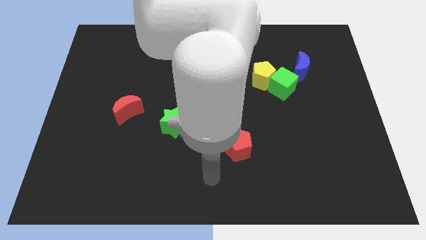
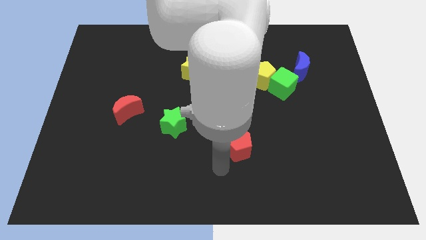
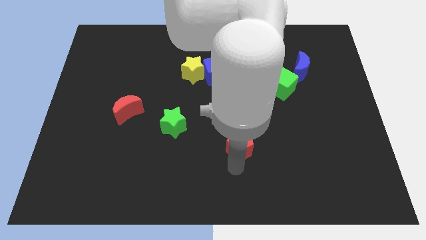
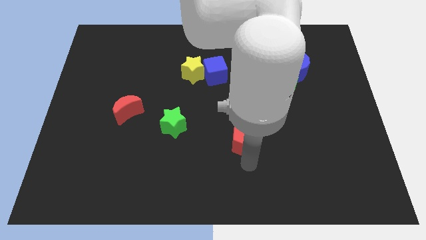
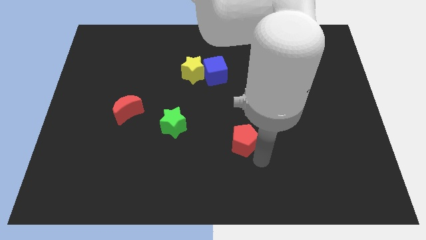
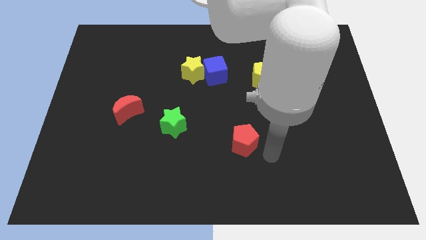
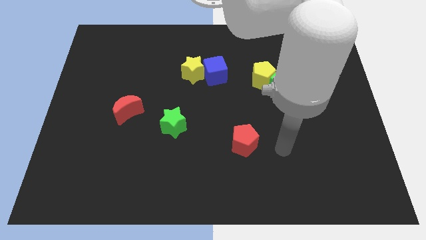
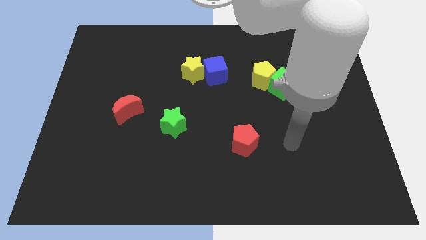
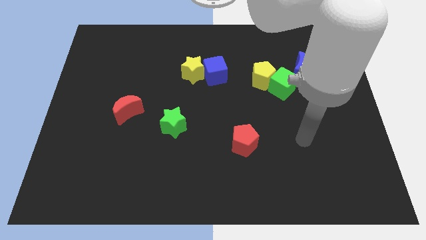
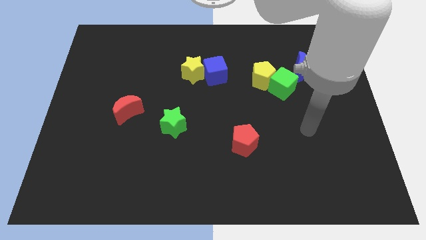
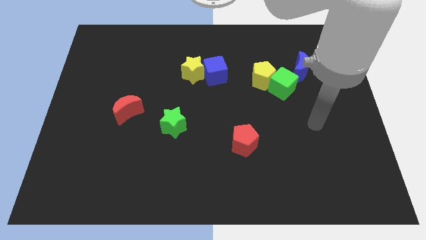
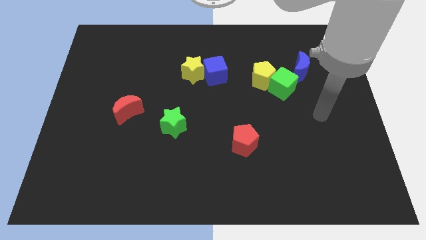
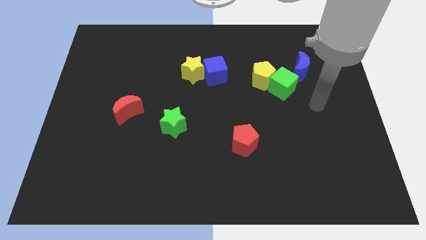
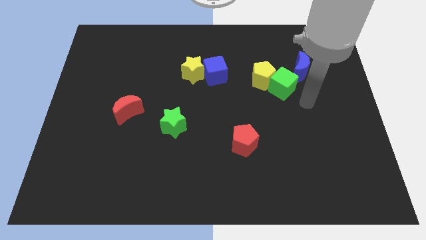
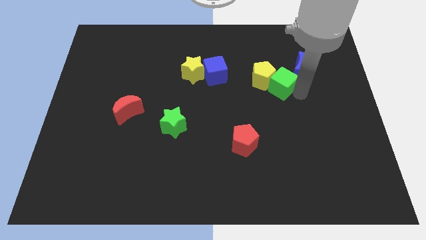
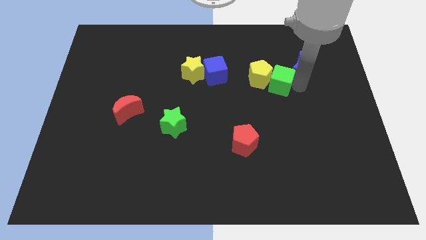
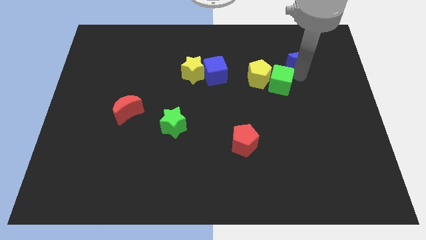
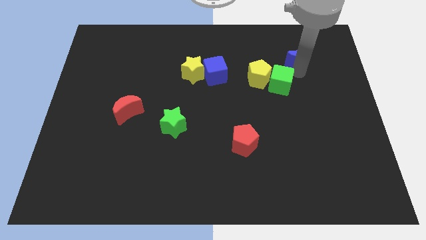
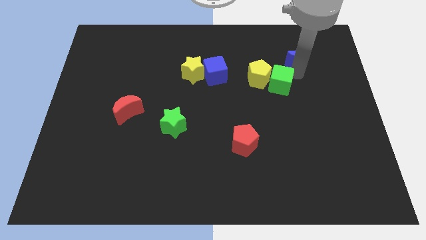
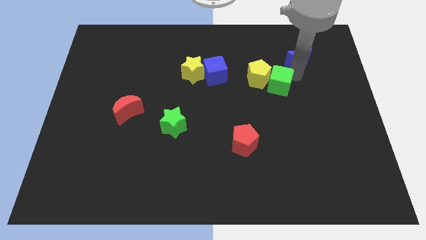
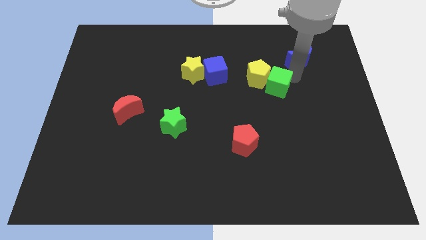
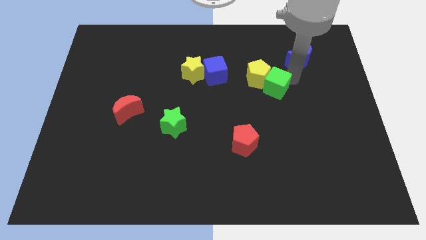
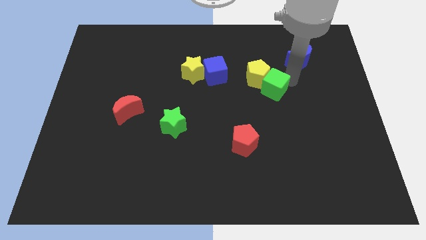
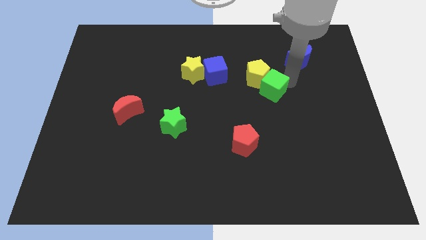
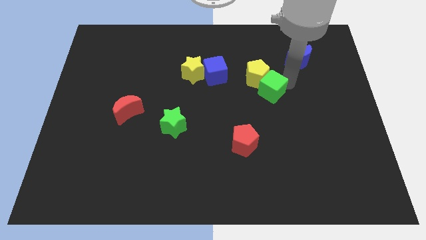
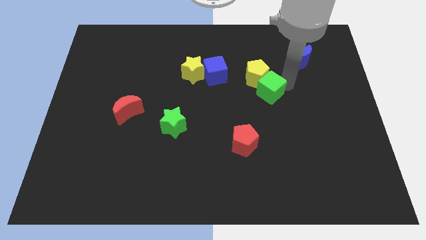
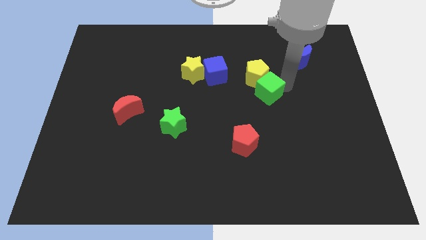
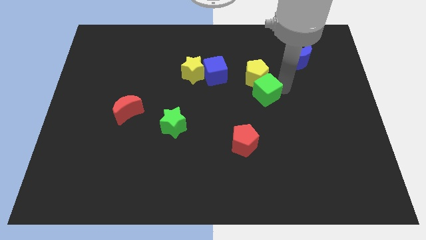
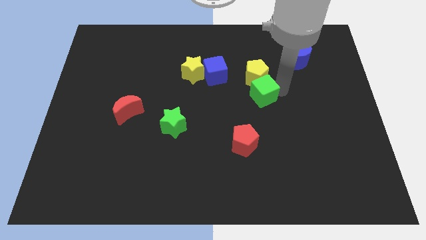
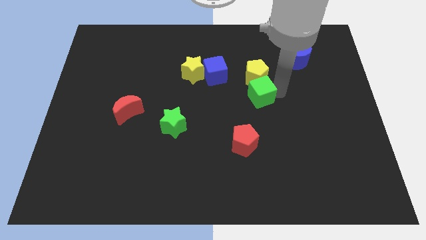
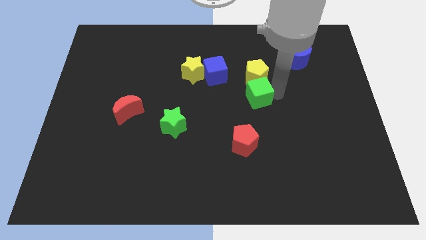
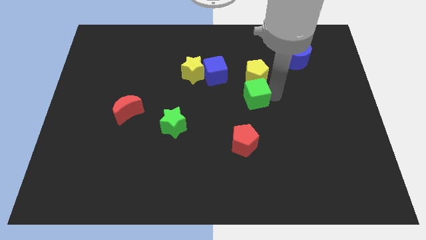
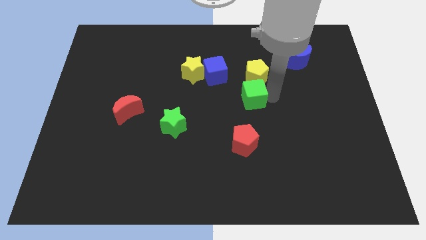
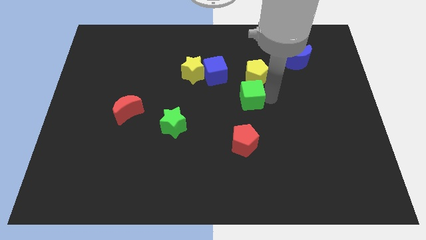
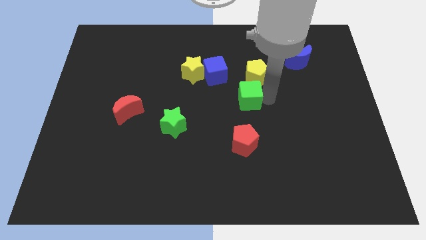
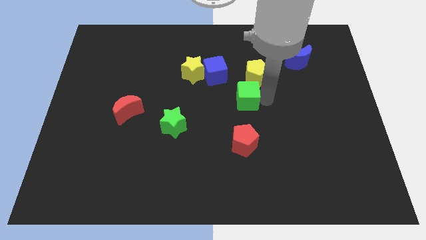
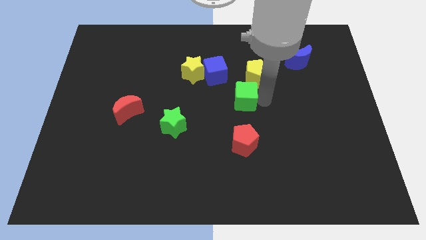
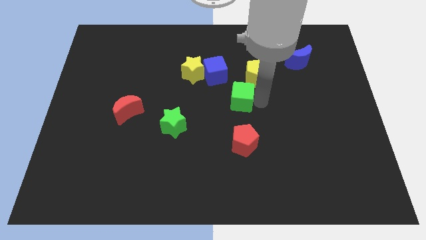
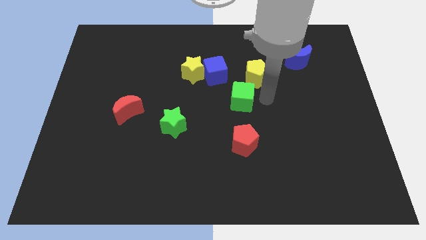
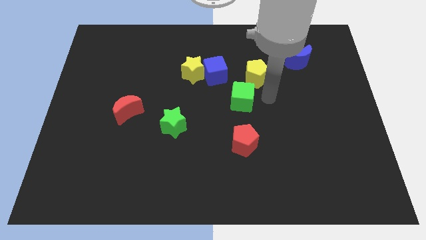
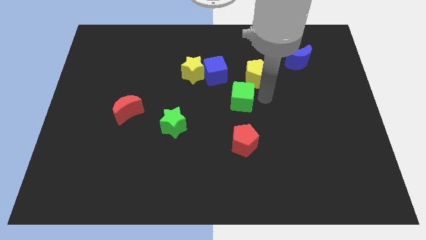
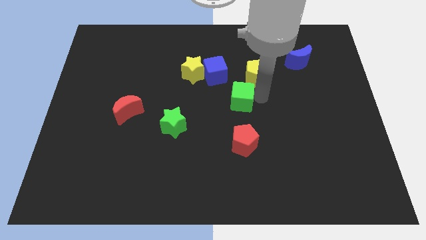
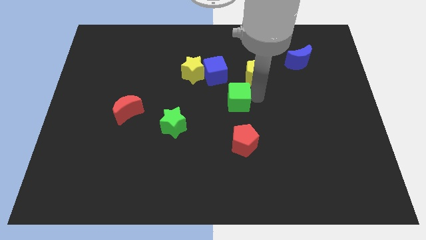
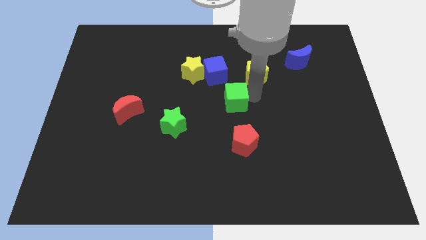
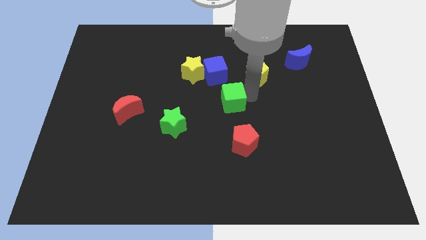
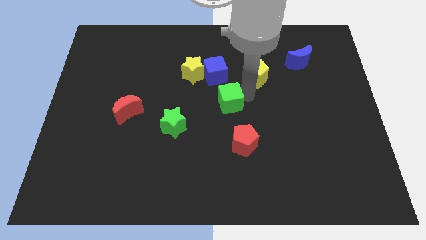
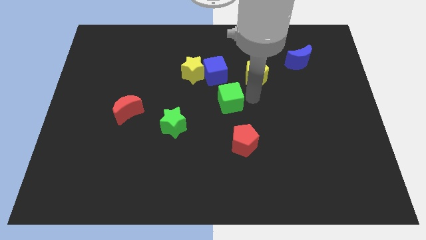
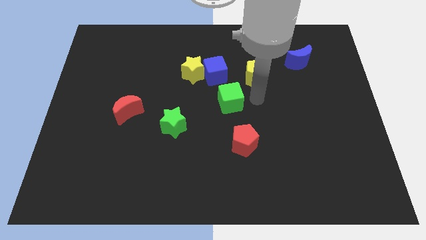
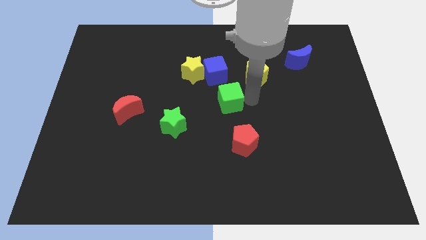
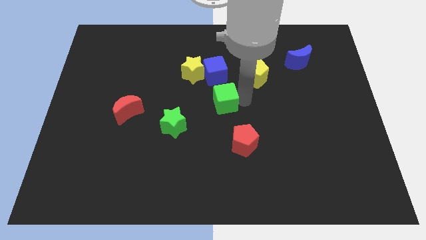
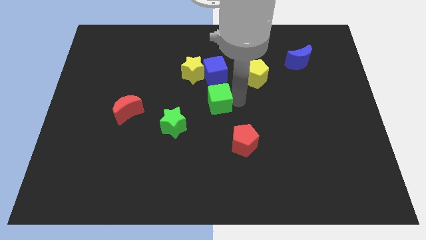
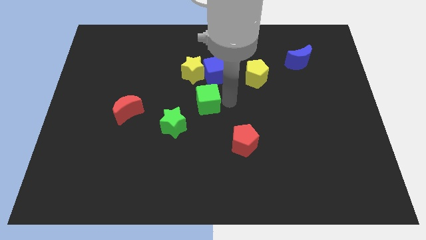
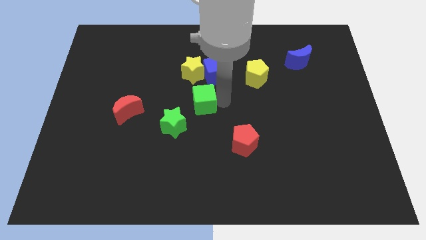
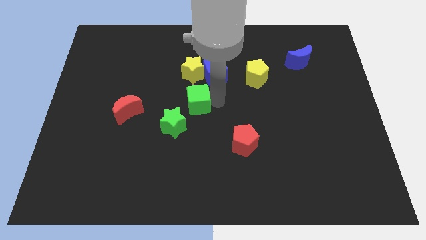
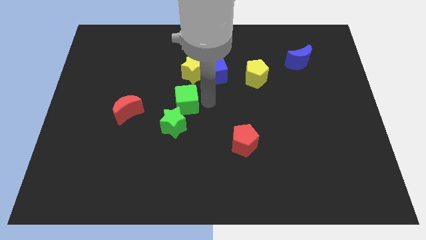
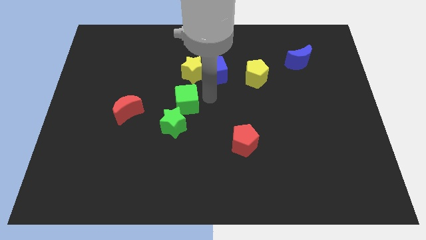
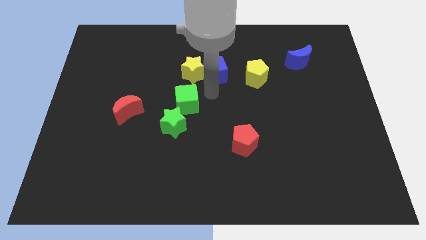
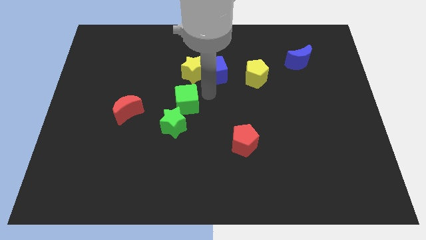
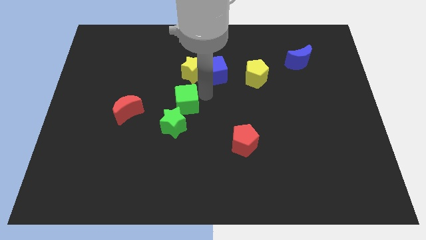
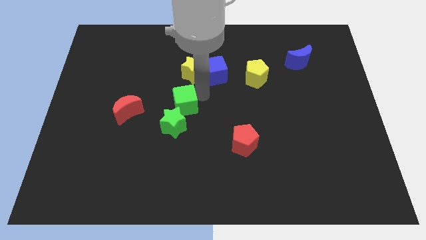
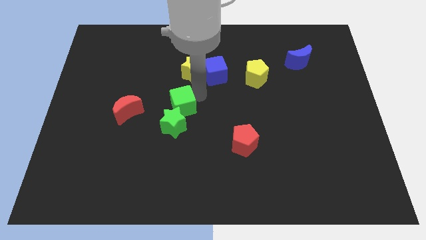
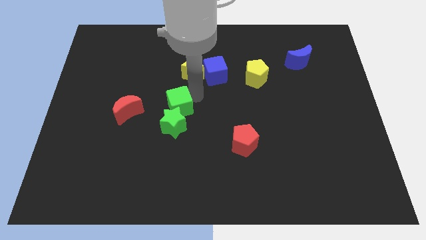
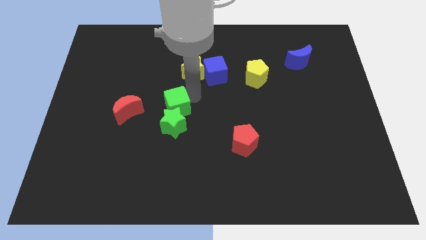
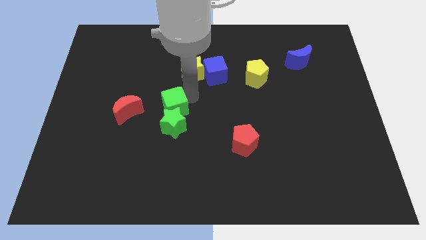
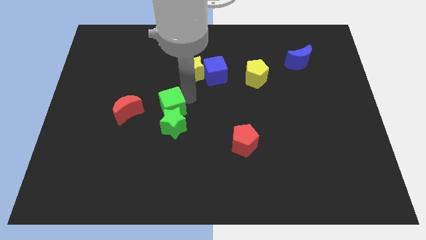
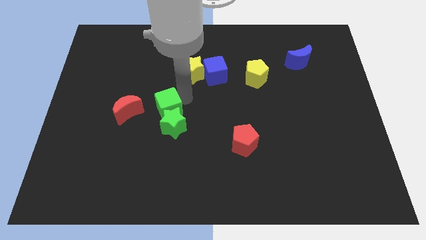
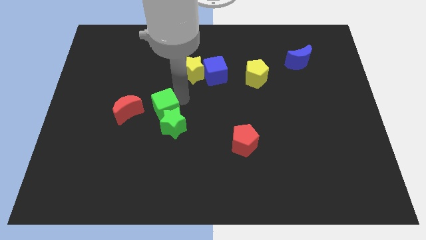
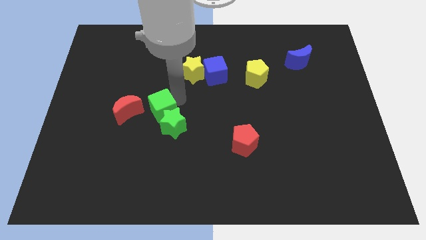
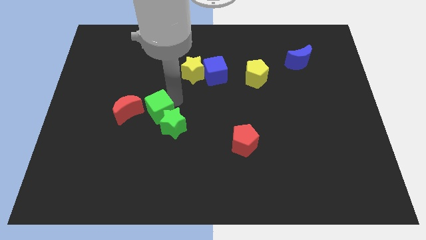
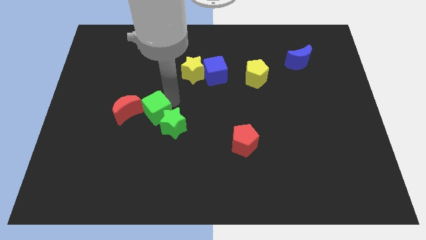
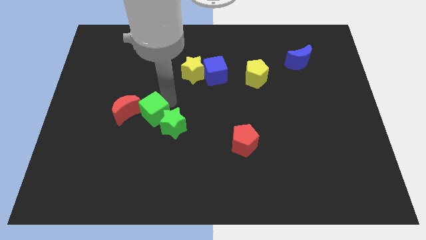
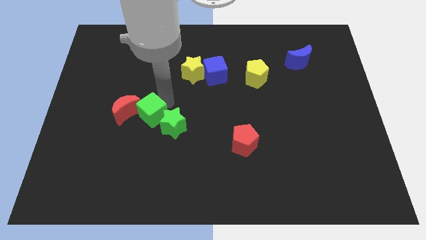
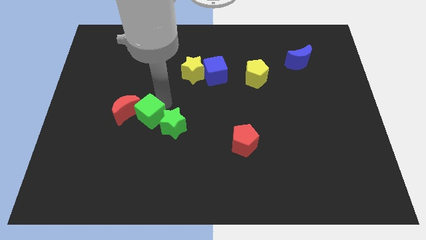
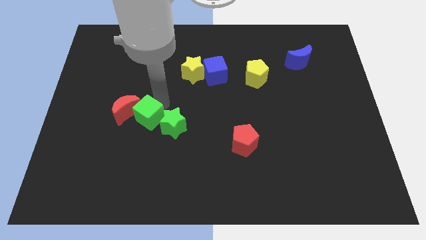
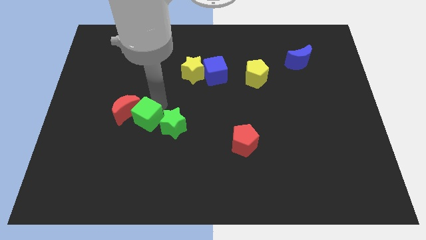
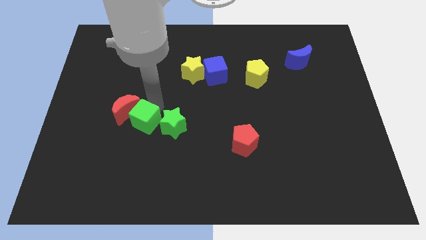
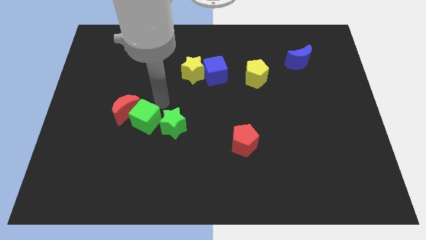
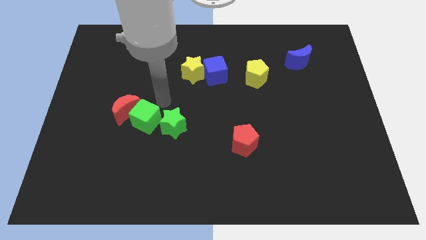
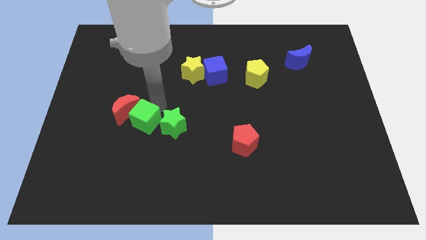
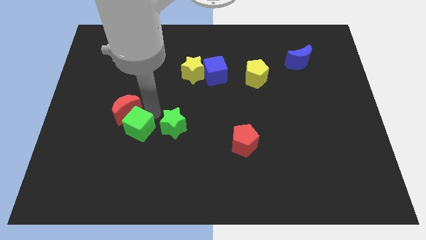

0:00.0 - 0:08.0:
push the green cube to the bottom side of the red moon

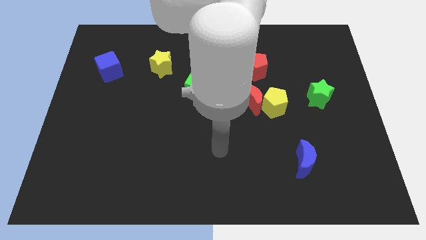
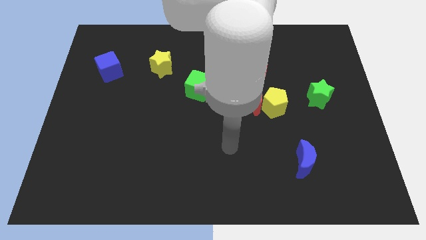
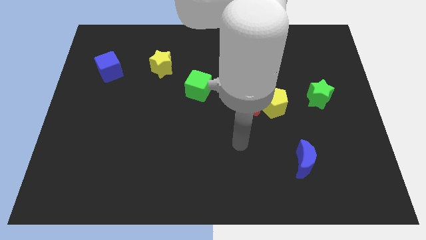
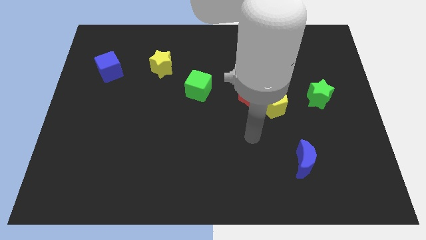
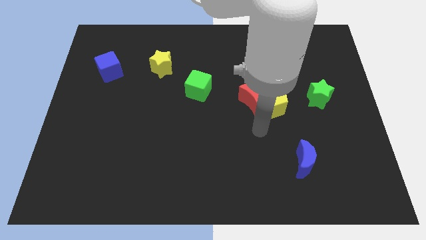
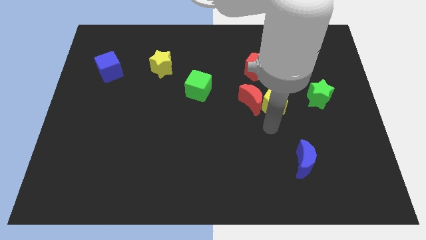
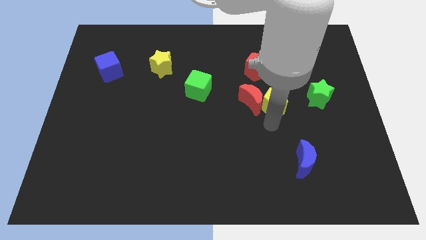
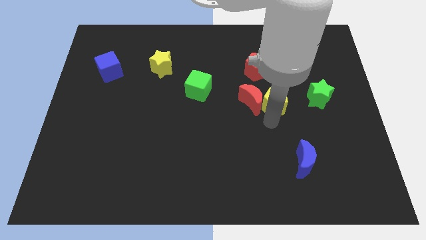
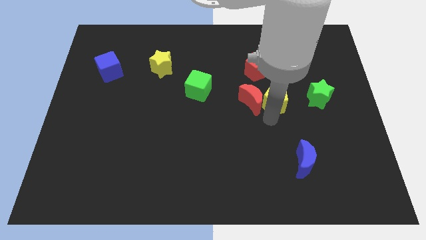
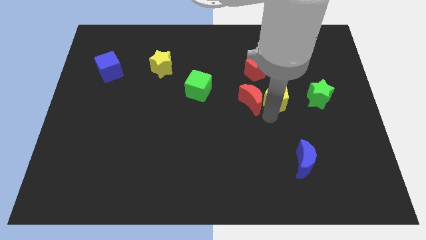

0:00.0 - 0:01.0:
push the yellow pentagon diagonally down and to the right of the red pentagon
